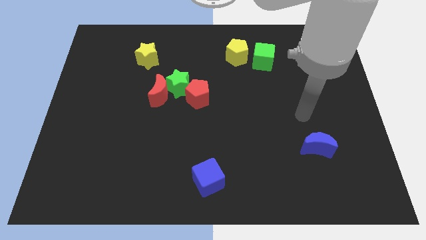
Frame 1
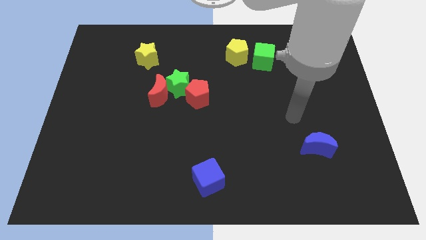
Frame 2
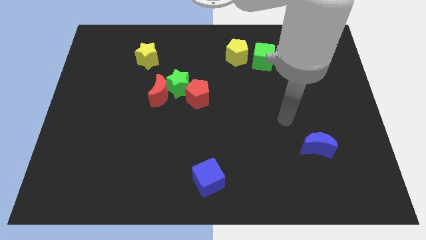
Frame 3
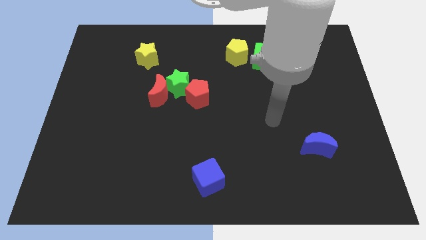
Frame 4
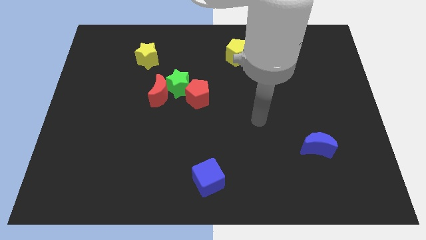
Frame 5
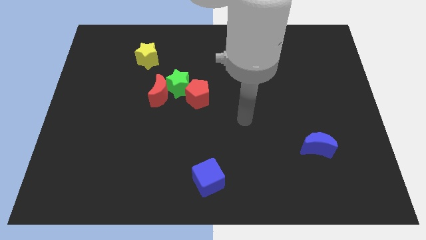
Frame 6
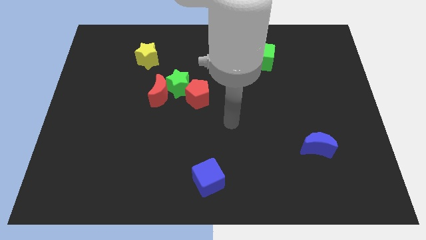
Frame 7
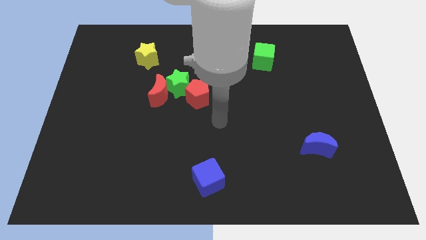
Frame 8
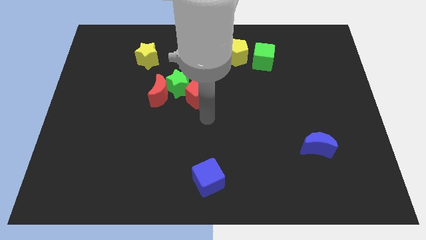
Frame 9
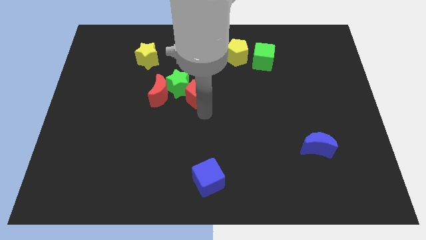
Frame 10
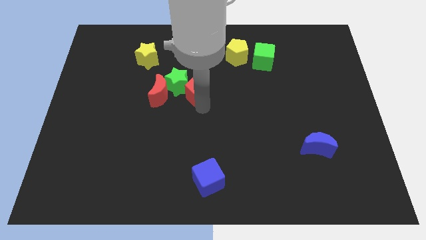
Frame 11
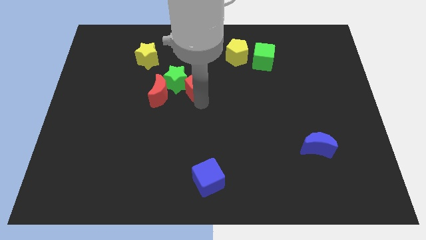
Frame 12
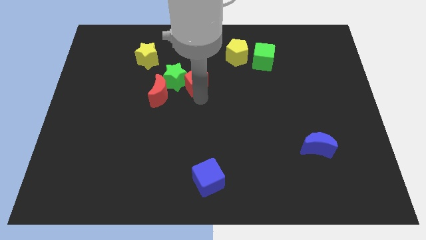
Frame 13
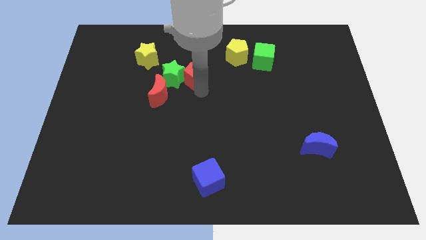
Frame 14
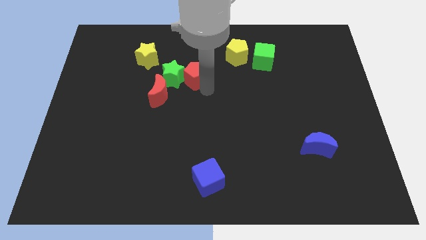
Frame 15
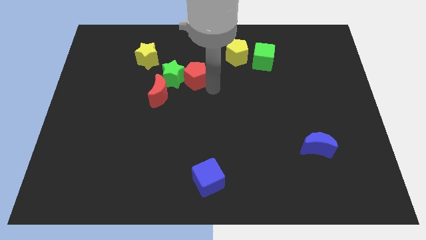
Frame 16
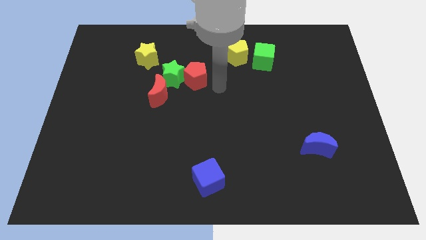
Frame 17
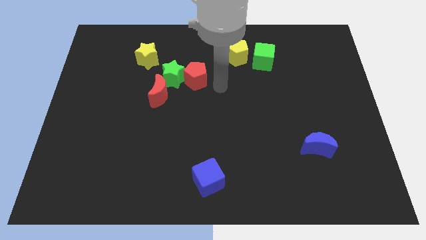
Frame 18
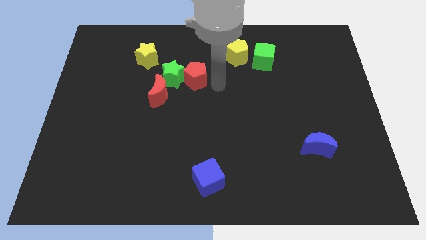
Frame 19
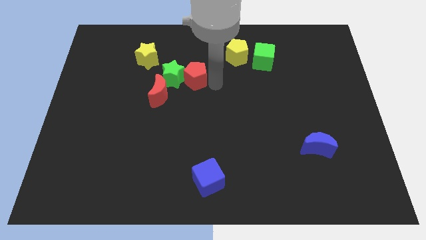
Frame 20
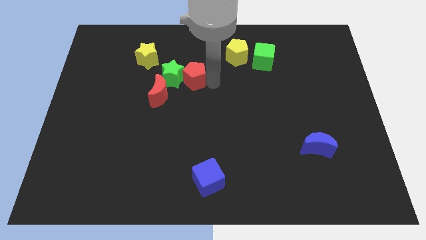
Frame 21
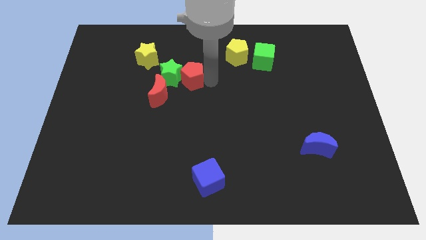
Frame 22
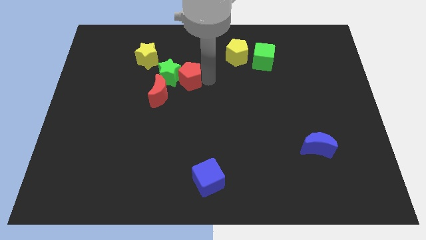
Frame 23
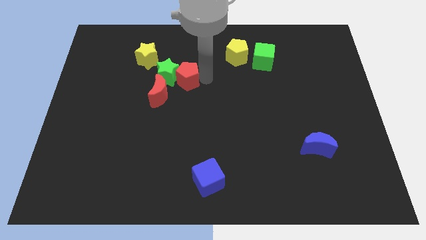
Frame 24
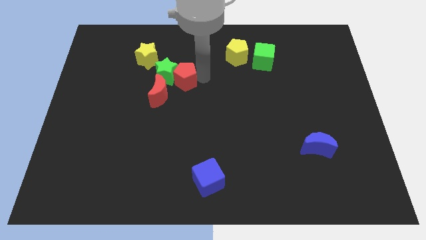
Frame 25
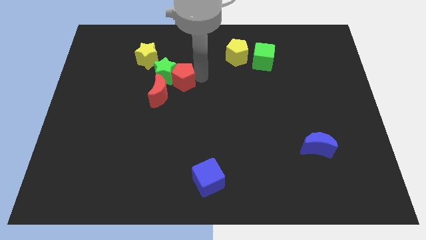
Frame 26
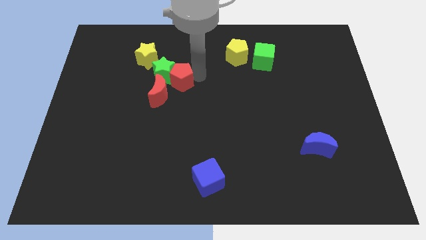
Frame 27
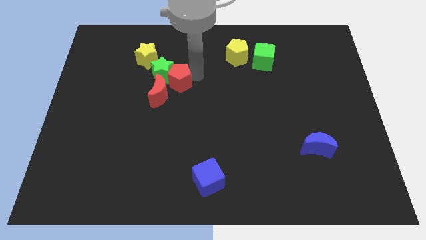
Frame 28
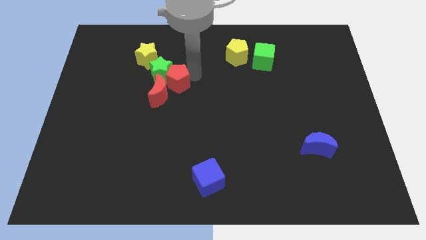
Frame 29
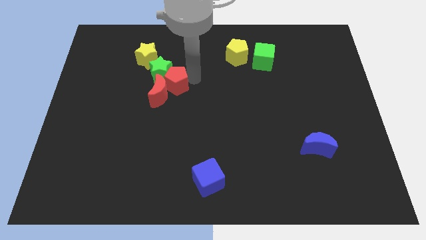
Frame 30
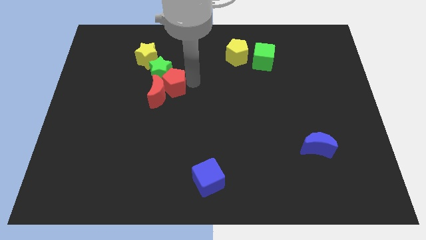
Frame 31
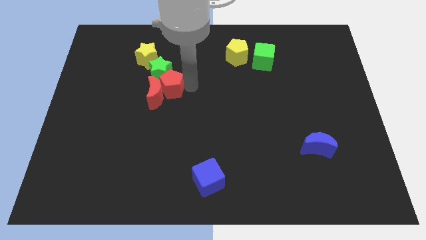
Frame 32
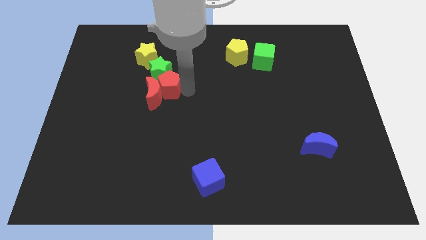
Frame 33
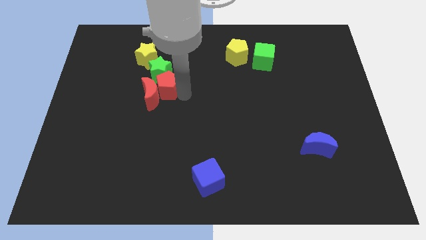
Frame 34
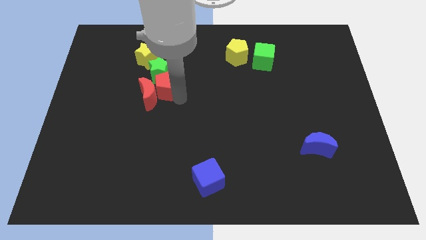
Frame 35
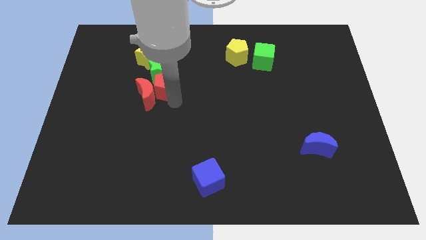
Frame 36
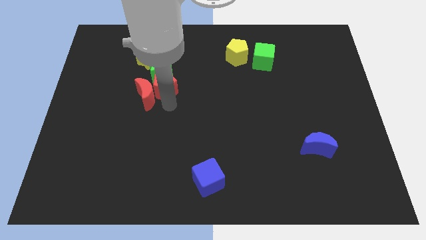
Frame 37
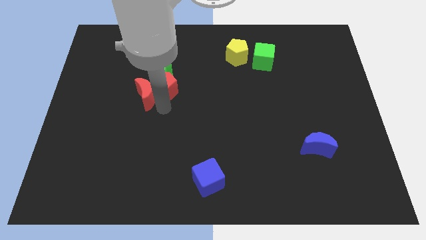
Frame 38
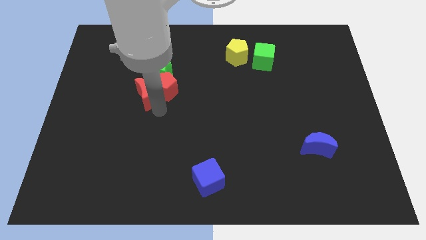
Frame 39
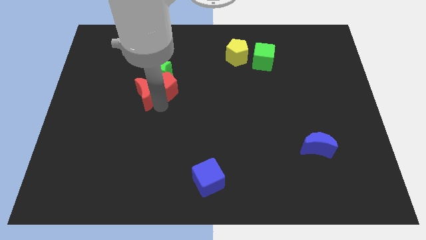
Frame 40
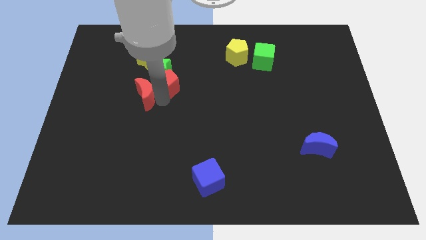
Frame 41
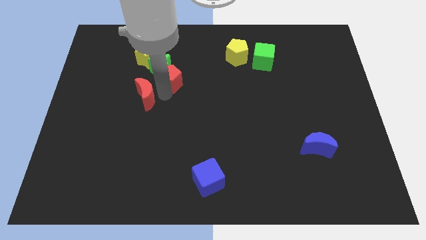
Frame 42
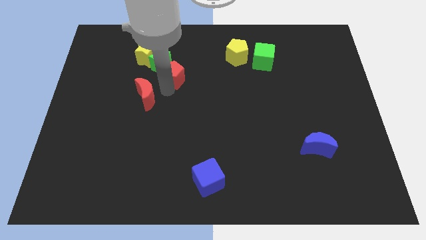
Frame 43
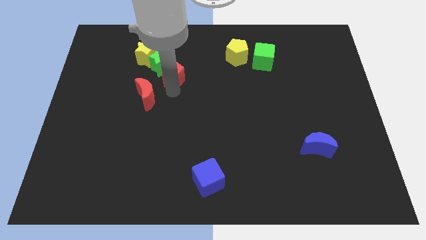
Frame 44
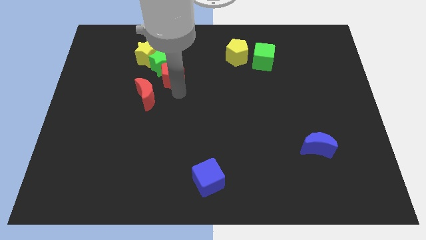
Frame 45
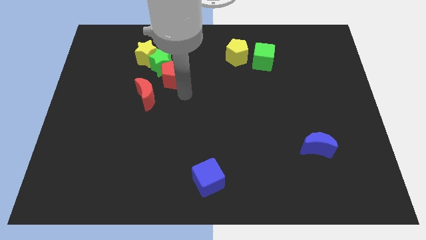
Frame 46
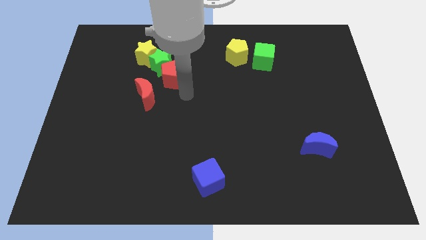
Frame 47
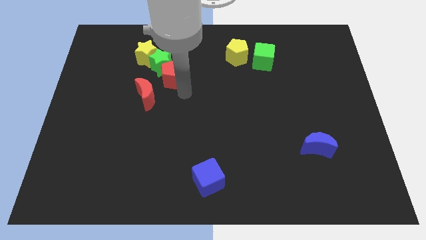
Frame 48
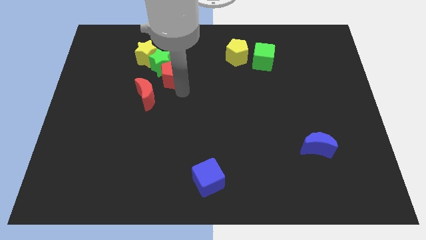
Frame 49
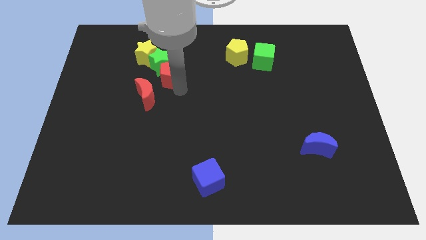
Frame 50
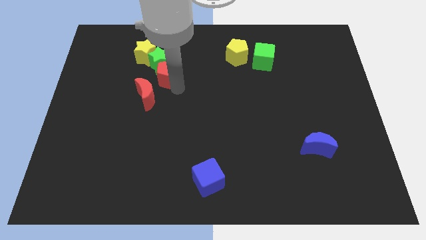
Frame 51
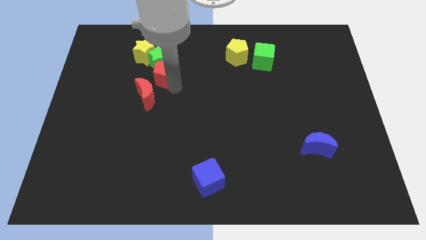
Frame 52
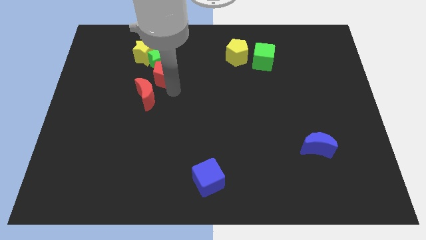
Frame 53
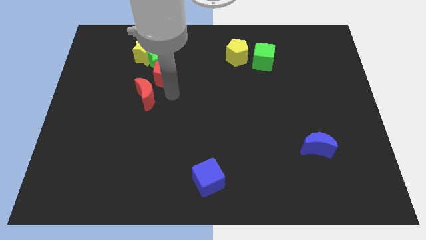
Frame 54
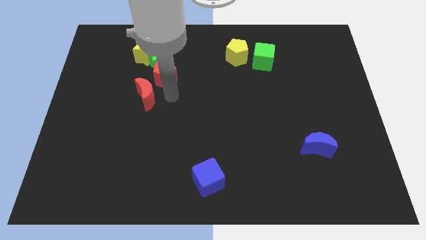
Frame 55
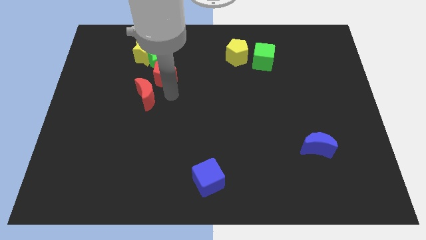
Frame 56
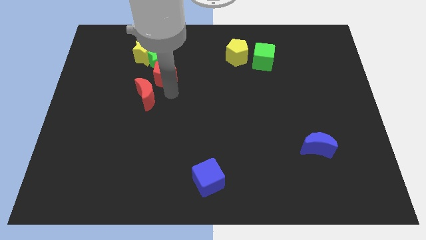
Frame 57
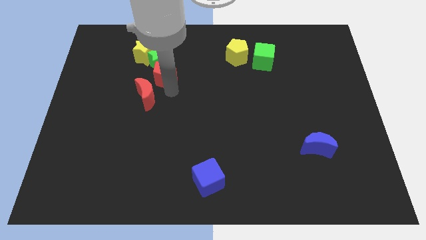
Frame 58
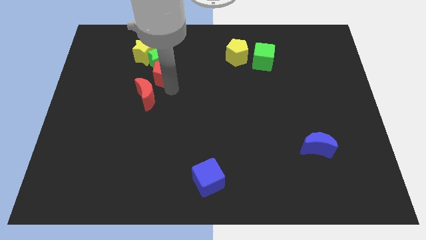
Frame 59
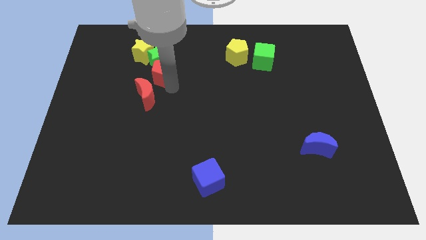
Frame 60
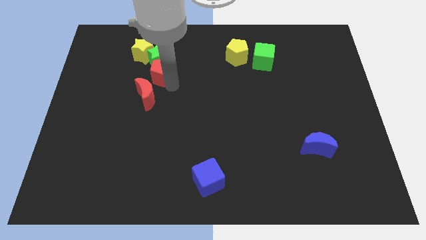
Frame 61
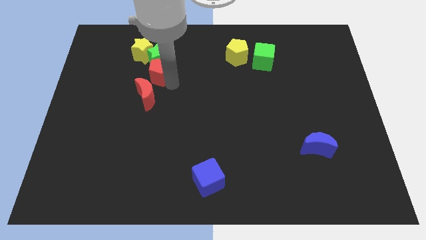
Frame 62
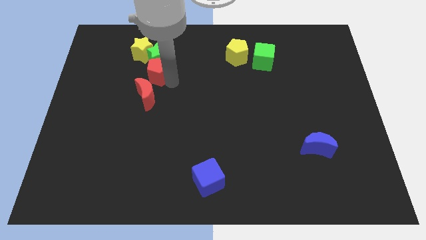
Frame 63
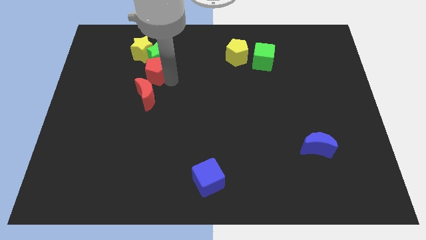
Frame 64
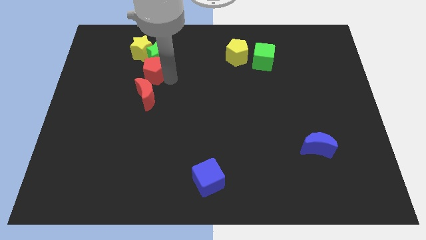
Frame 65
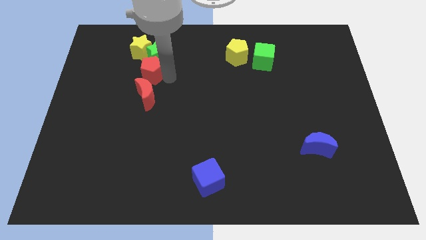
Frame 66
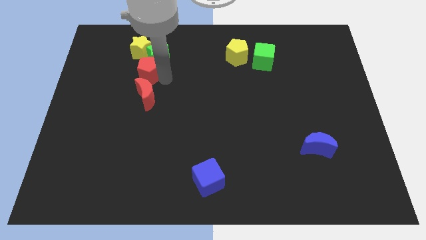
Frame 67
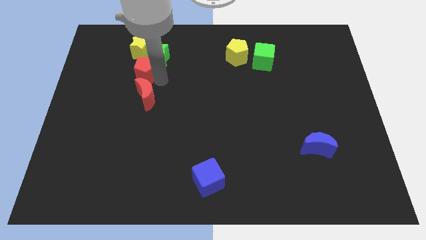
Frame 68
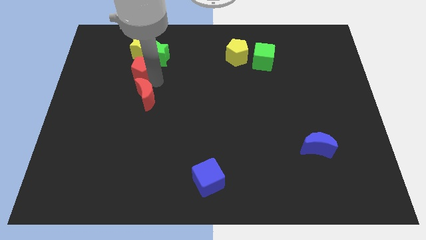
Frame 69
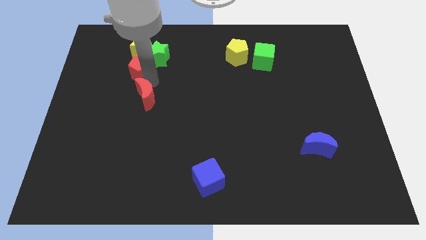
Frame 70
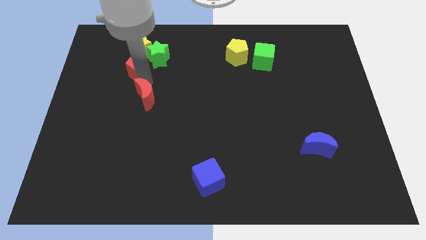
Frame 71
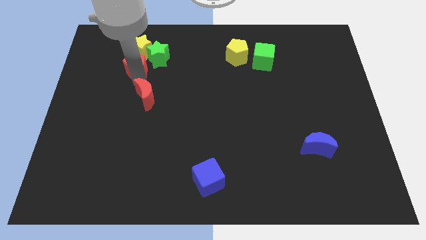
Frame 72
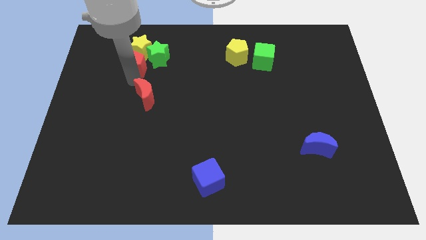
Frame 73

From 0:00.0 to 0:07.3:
put the red pentagon towards the yellow star
